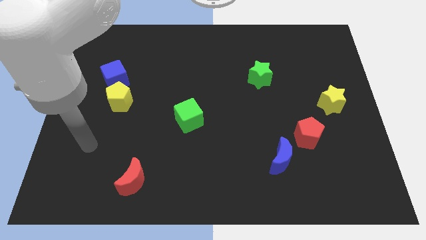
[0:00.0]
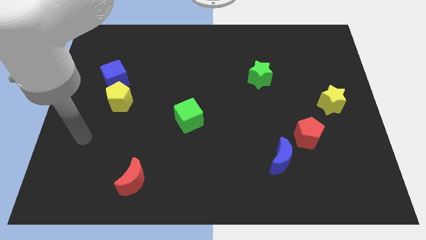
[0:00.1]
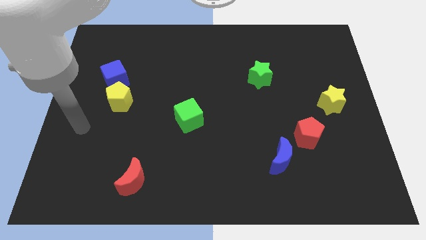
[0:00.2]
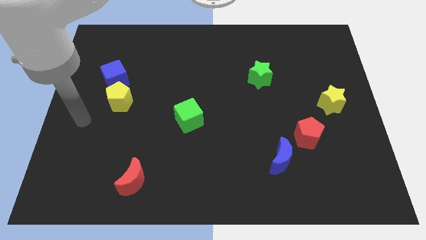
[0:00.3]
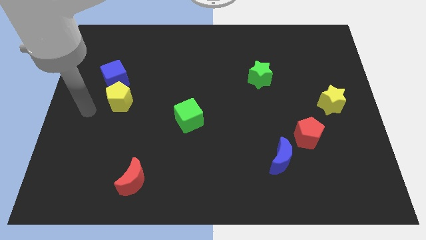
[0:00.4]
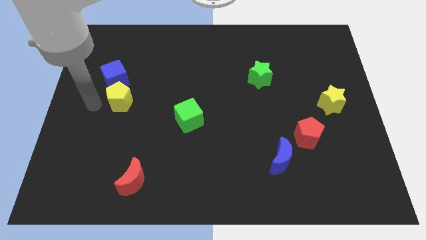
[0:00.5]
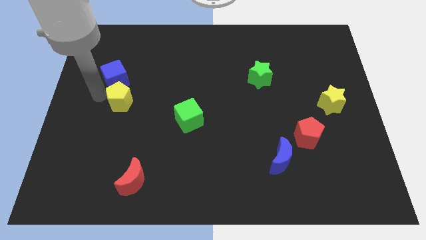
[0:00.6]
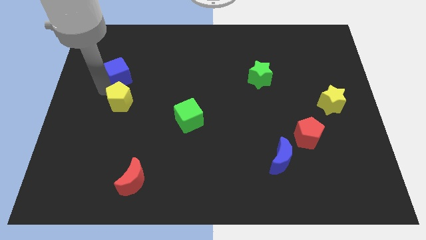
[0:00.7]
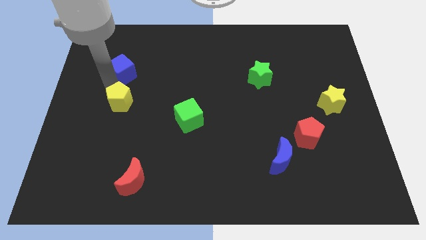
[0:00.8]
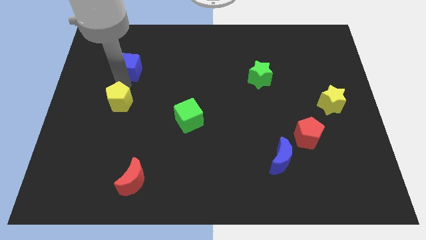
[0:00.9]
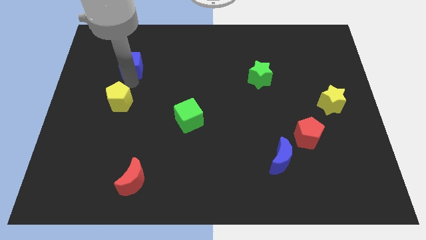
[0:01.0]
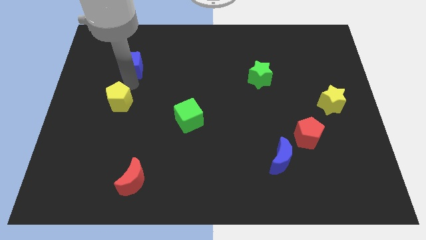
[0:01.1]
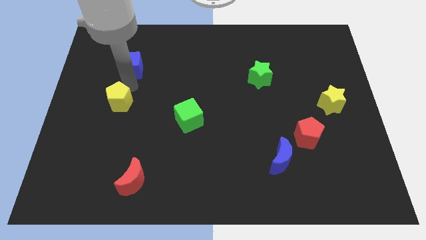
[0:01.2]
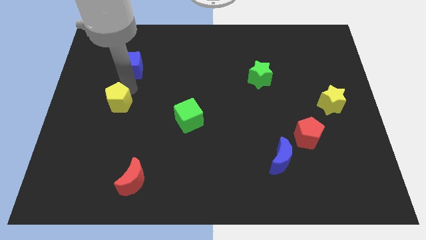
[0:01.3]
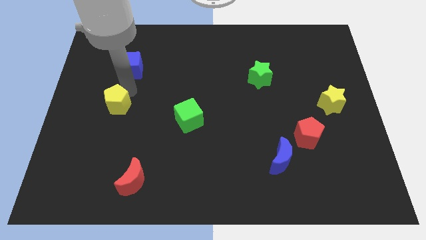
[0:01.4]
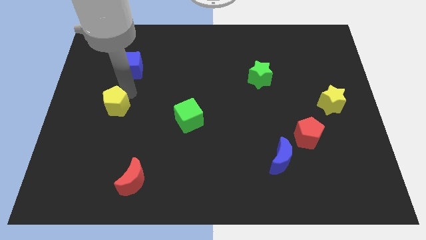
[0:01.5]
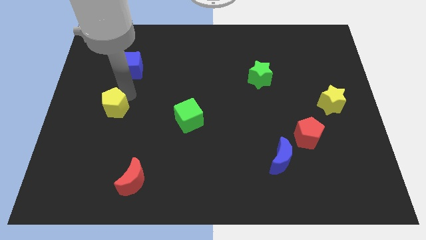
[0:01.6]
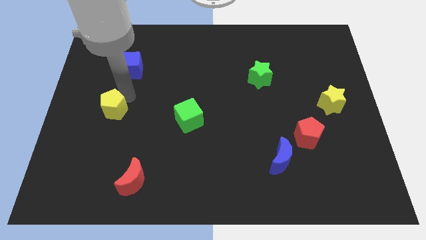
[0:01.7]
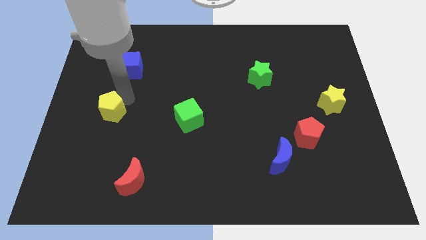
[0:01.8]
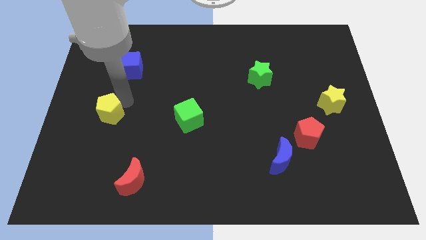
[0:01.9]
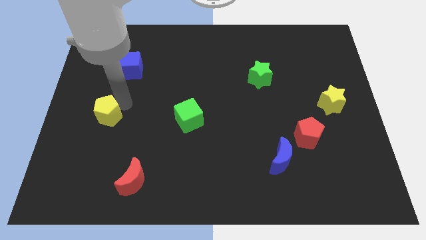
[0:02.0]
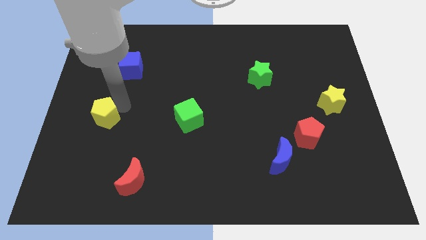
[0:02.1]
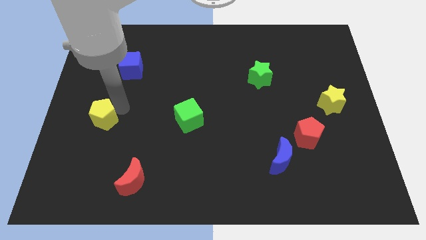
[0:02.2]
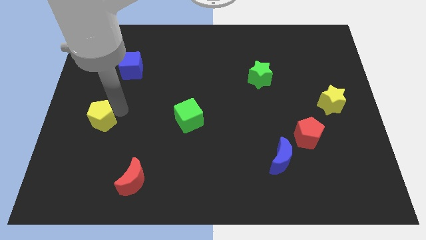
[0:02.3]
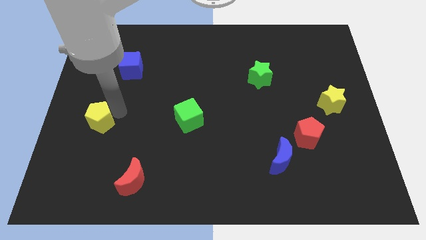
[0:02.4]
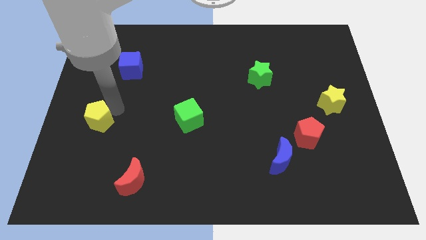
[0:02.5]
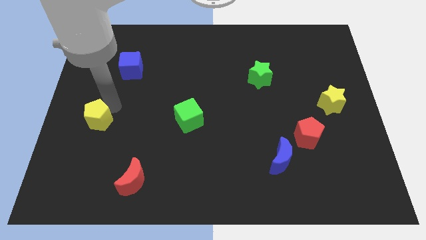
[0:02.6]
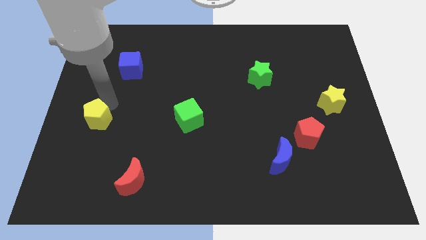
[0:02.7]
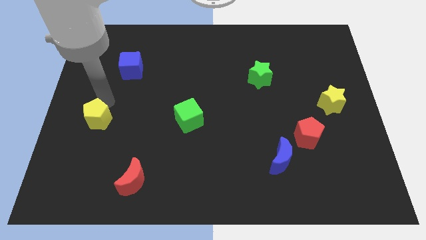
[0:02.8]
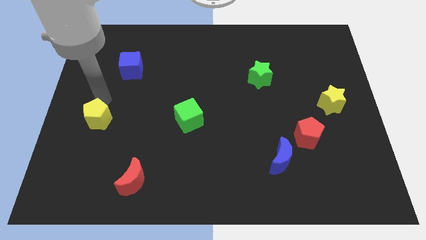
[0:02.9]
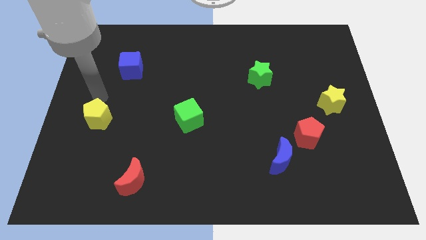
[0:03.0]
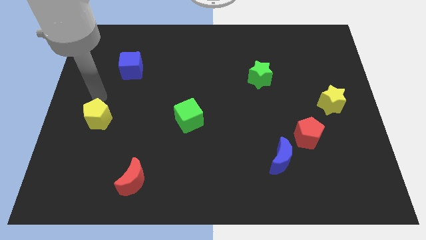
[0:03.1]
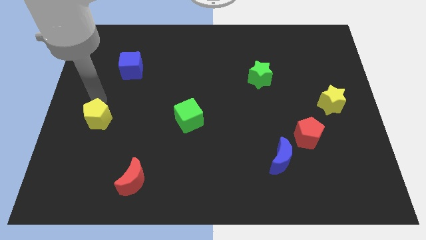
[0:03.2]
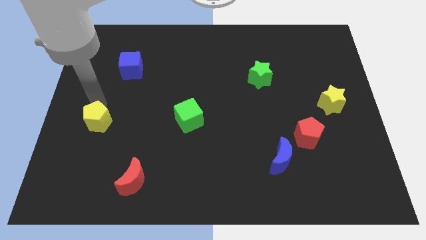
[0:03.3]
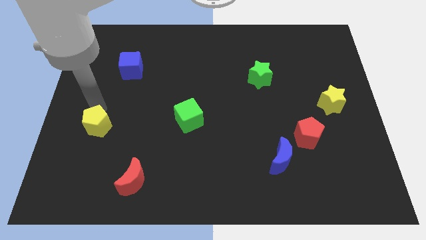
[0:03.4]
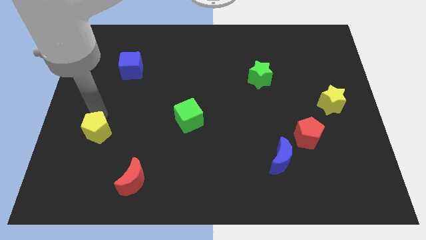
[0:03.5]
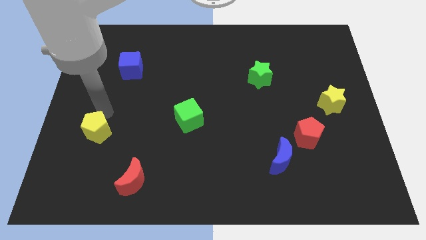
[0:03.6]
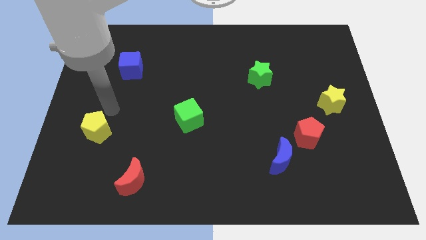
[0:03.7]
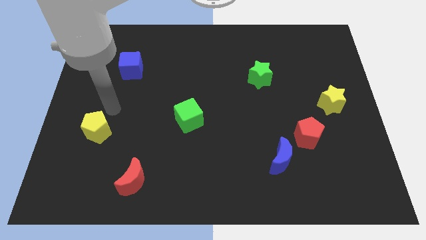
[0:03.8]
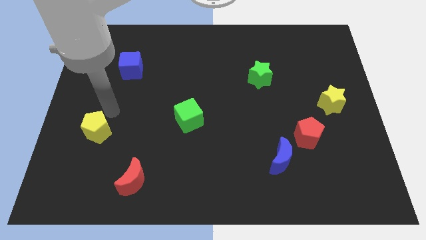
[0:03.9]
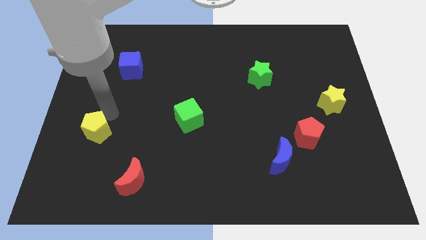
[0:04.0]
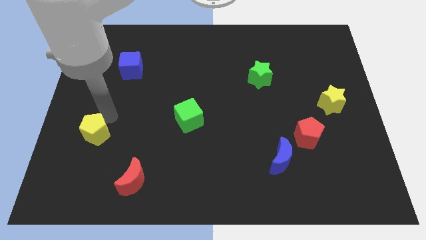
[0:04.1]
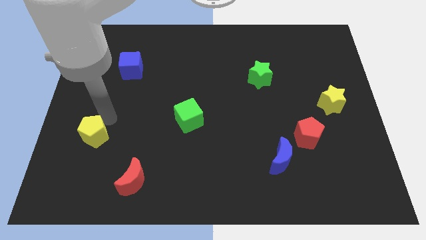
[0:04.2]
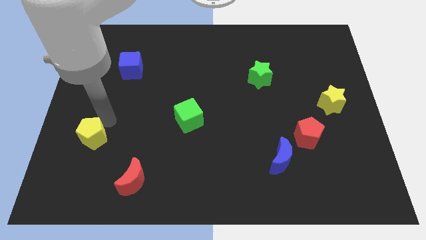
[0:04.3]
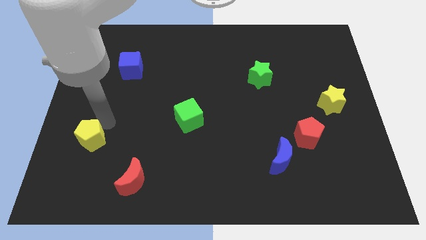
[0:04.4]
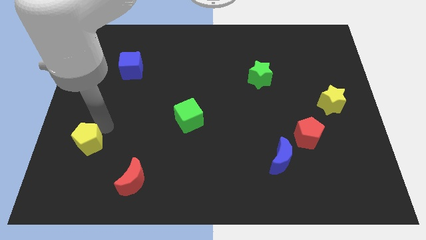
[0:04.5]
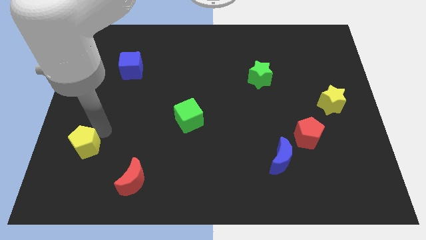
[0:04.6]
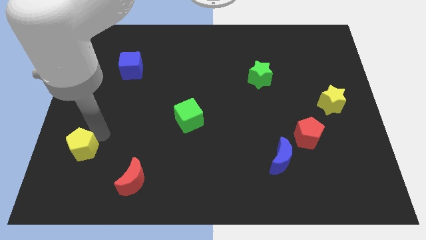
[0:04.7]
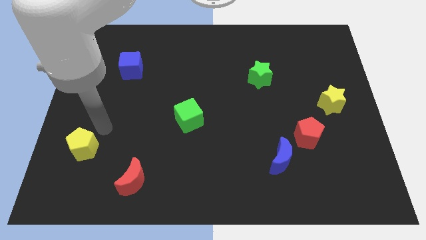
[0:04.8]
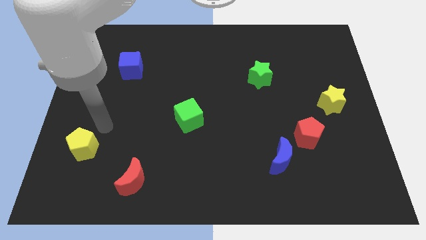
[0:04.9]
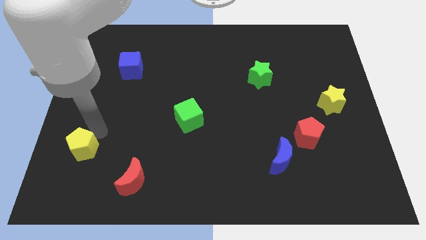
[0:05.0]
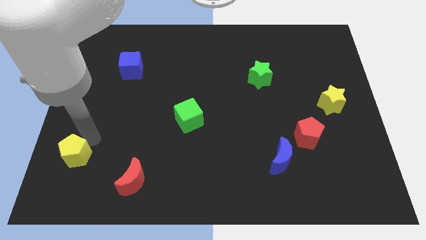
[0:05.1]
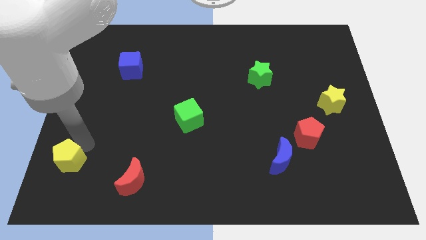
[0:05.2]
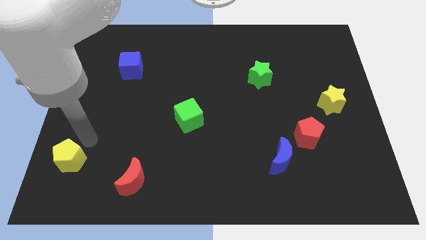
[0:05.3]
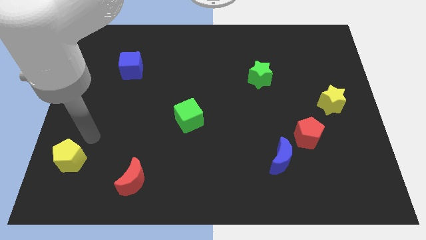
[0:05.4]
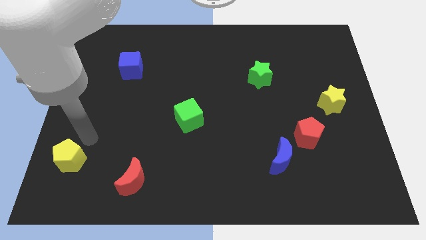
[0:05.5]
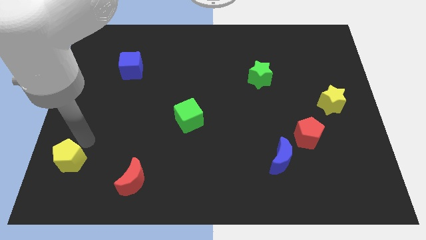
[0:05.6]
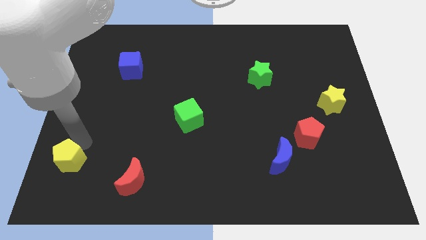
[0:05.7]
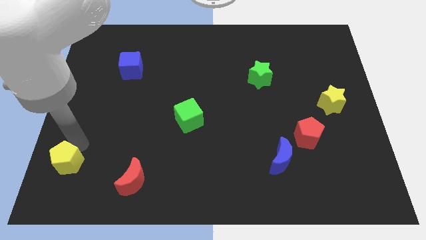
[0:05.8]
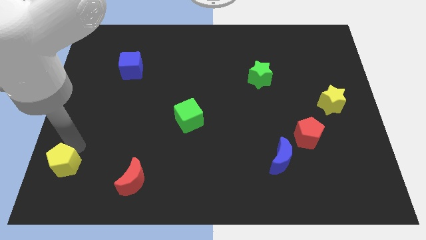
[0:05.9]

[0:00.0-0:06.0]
slide the yellow pentagon to the bottom left
